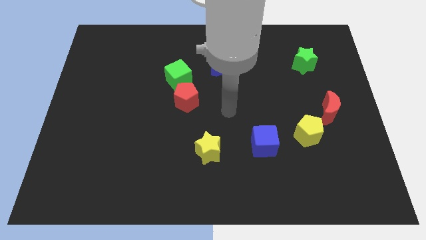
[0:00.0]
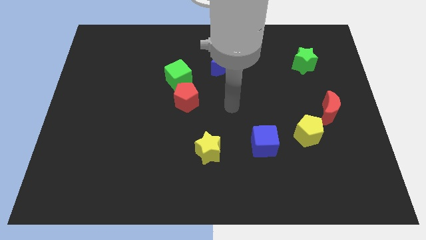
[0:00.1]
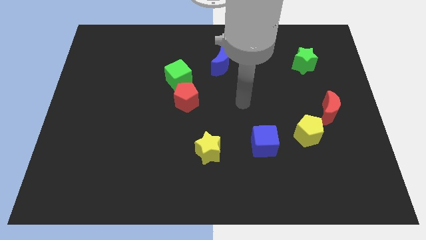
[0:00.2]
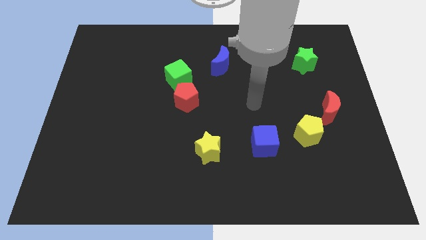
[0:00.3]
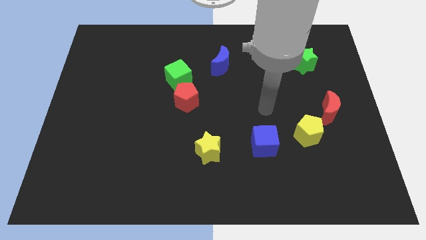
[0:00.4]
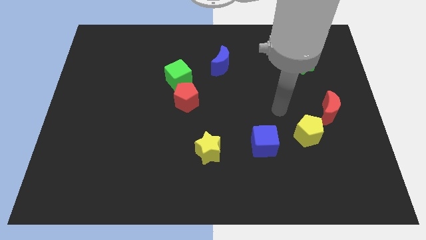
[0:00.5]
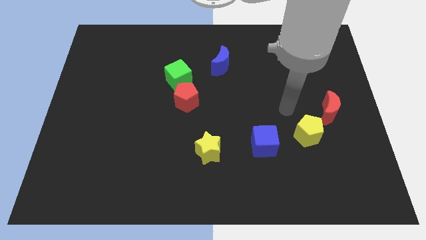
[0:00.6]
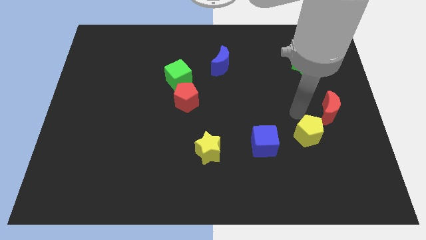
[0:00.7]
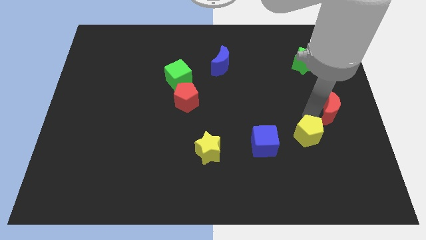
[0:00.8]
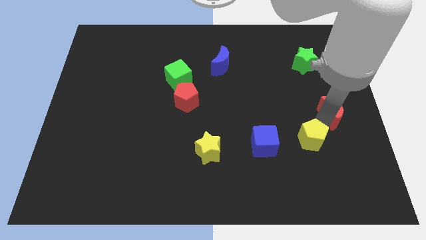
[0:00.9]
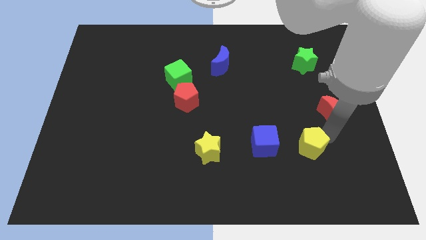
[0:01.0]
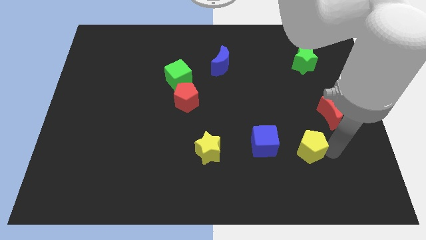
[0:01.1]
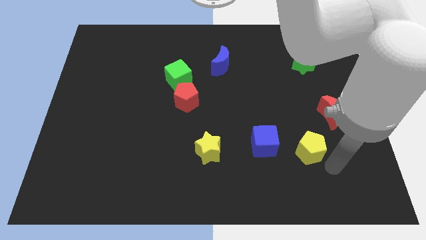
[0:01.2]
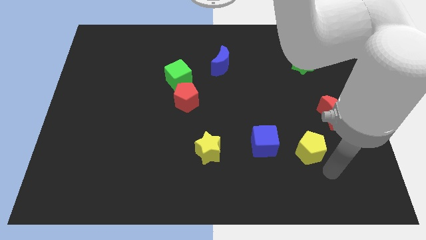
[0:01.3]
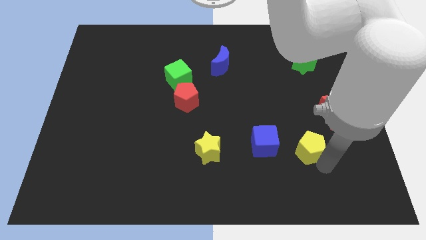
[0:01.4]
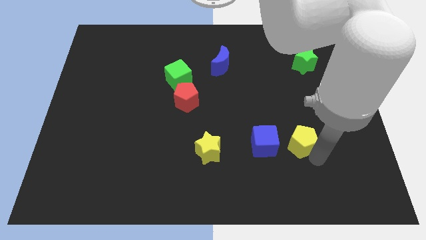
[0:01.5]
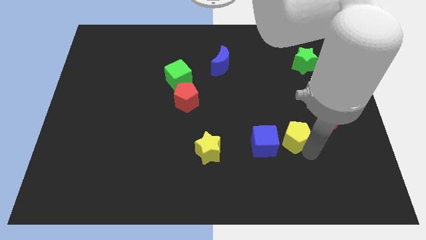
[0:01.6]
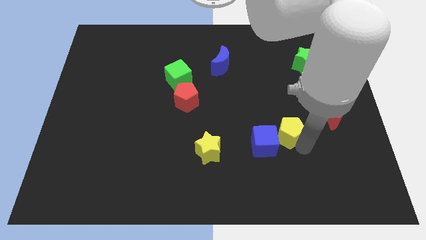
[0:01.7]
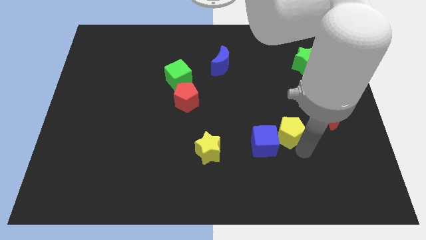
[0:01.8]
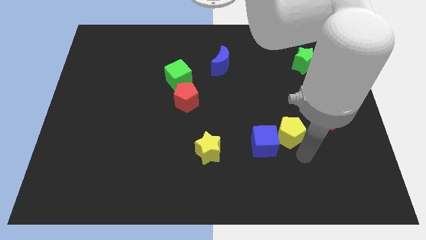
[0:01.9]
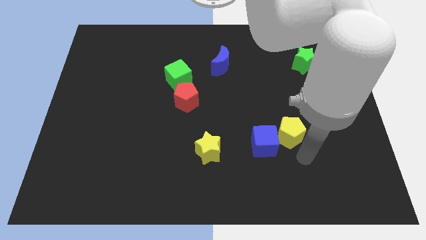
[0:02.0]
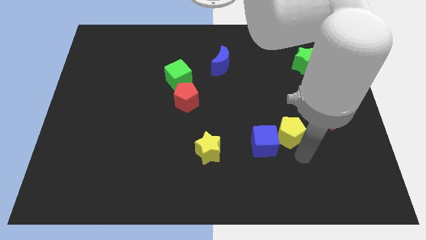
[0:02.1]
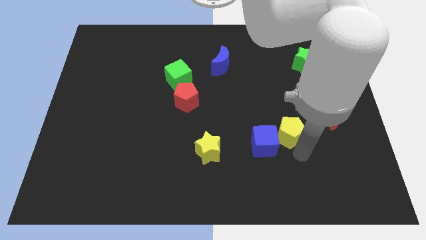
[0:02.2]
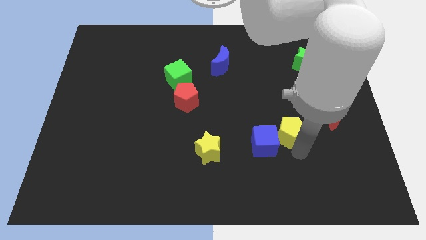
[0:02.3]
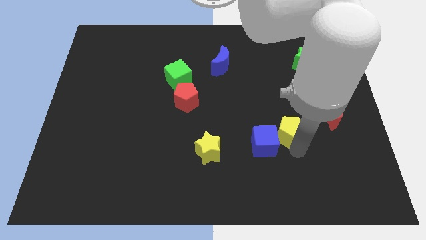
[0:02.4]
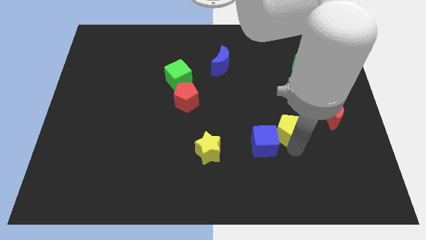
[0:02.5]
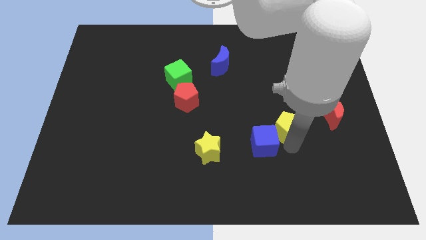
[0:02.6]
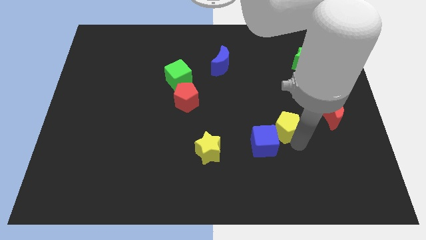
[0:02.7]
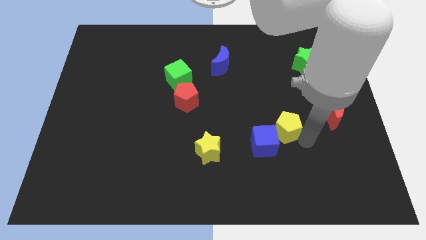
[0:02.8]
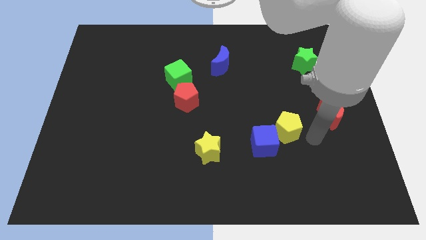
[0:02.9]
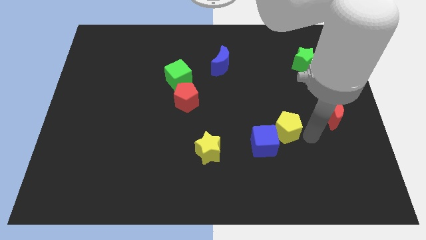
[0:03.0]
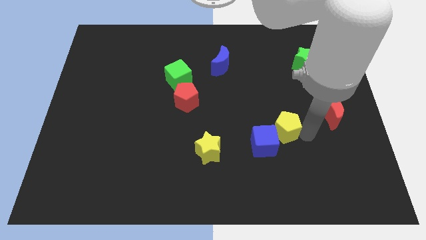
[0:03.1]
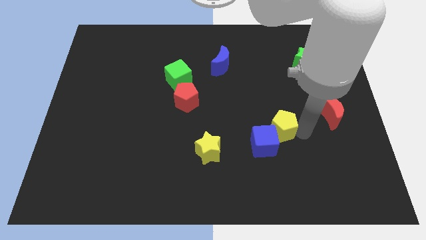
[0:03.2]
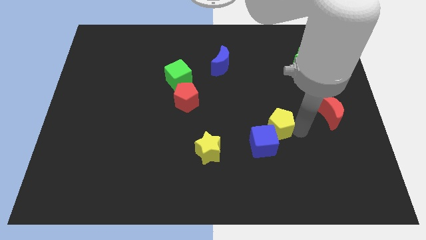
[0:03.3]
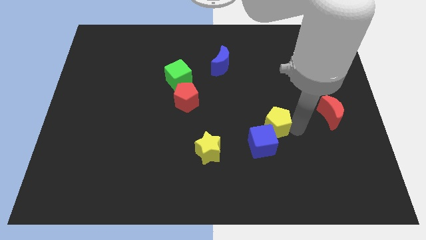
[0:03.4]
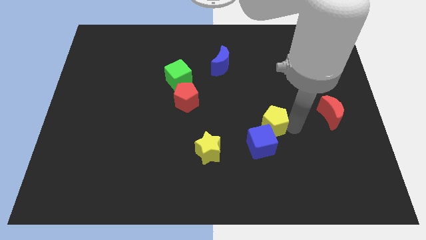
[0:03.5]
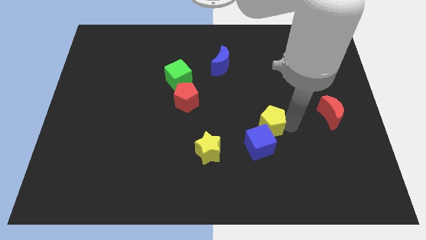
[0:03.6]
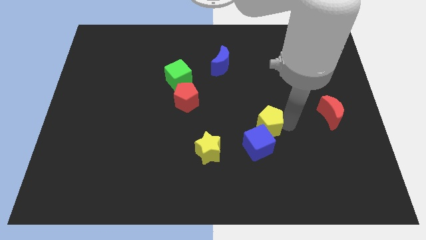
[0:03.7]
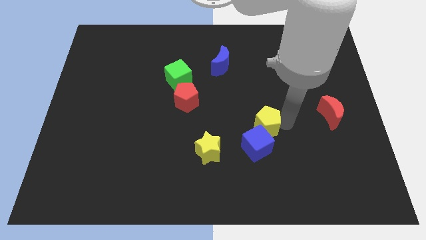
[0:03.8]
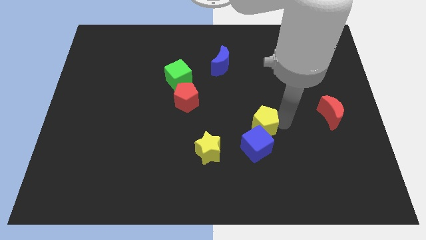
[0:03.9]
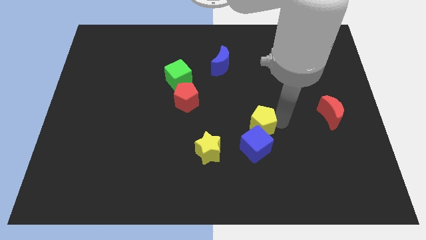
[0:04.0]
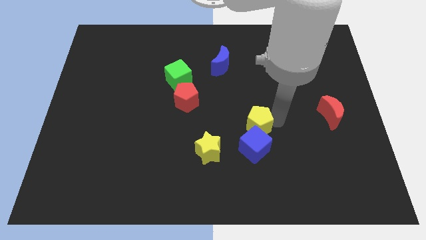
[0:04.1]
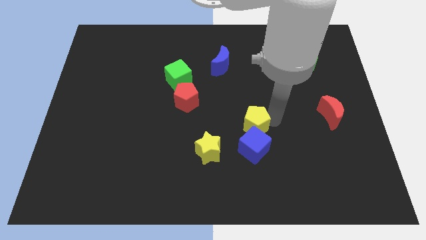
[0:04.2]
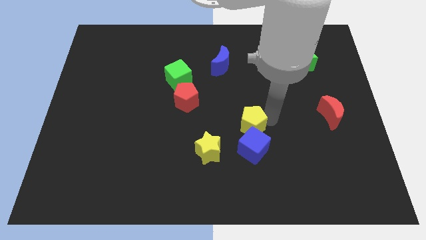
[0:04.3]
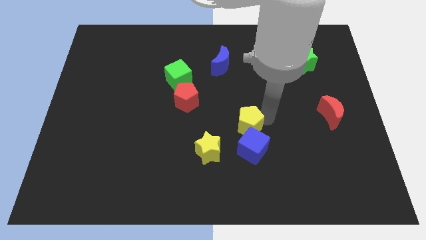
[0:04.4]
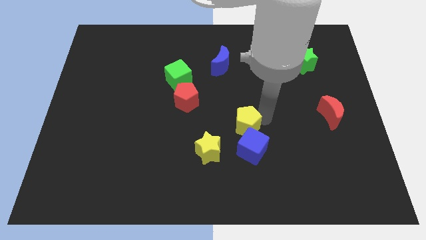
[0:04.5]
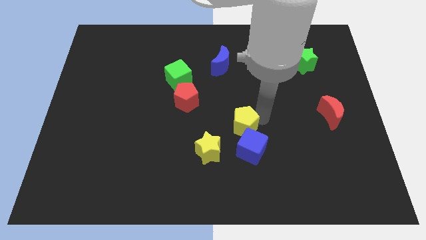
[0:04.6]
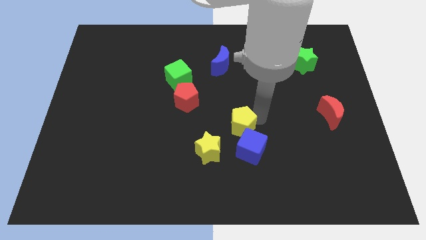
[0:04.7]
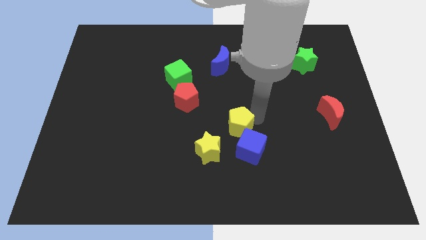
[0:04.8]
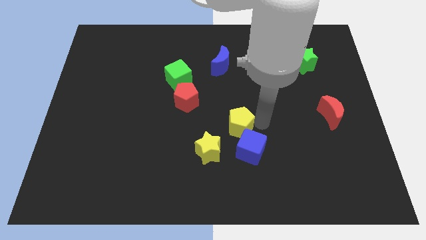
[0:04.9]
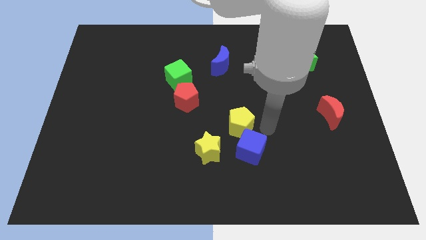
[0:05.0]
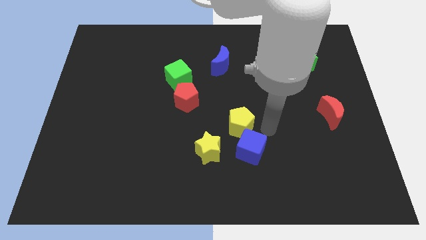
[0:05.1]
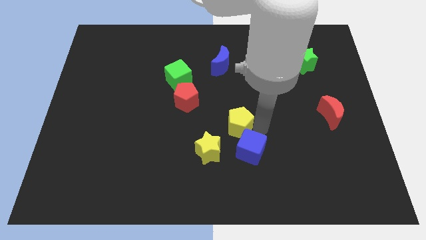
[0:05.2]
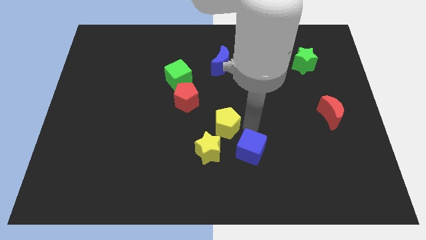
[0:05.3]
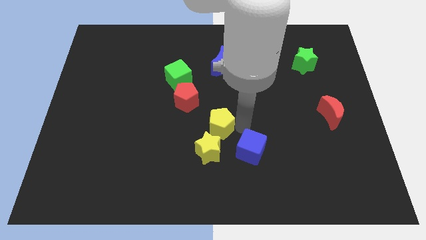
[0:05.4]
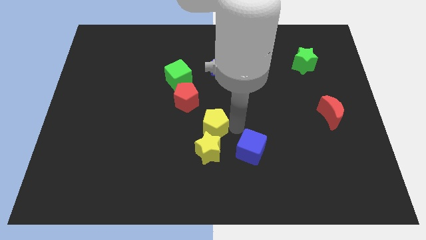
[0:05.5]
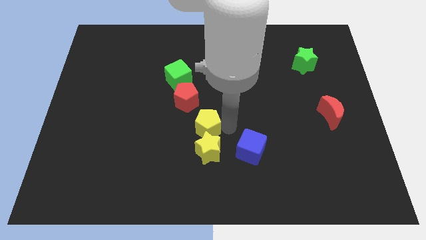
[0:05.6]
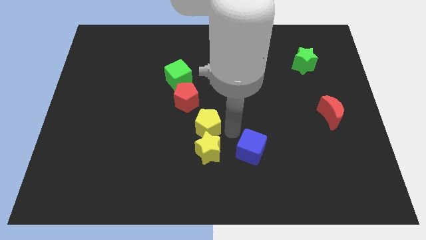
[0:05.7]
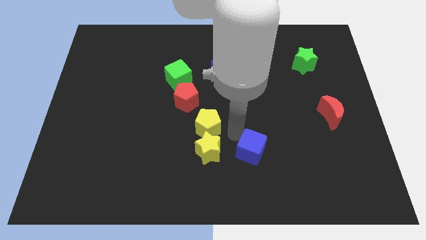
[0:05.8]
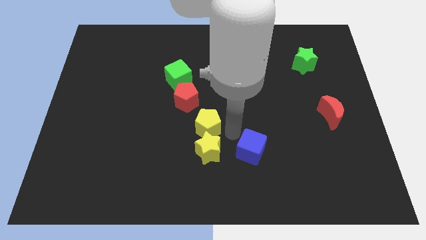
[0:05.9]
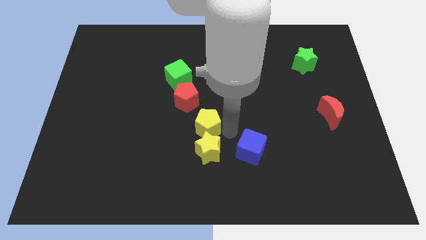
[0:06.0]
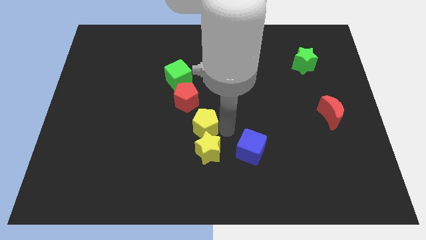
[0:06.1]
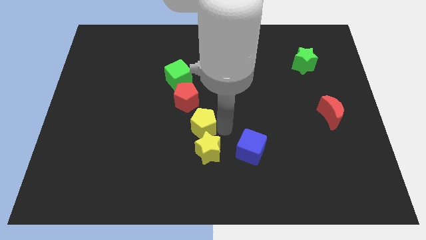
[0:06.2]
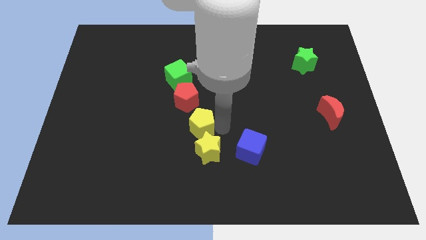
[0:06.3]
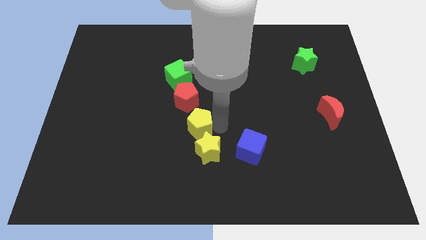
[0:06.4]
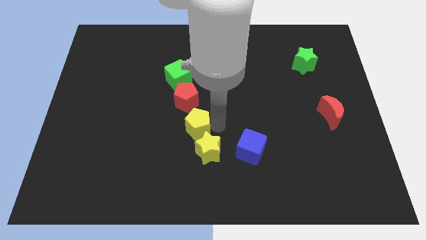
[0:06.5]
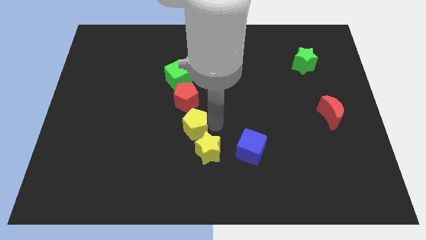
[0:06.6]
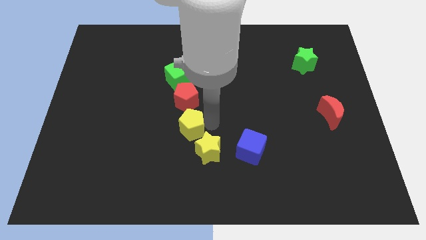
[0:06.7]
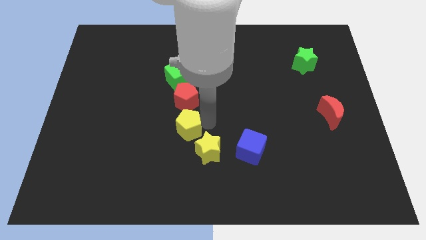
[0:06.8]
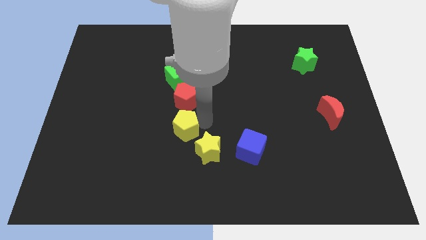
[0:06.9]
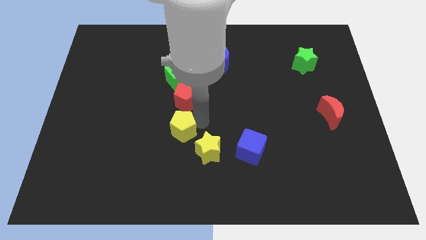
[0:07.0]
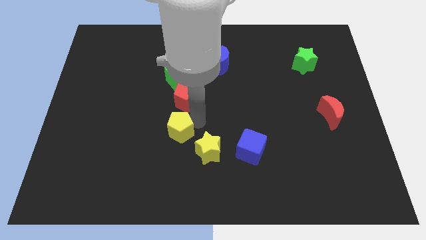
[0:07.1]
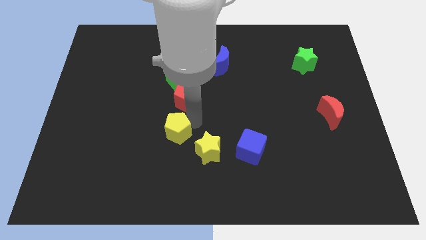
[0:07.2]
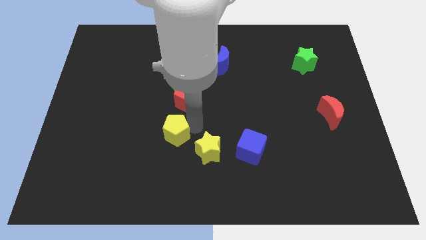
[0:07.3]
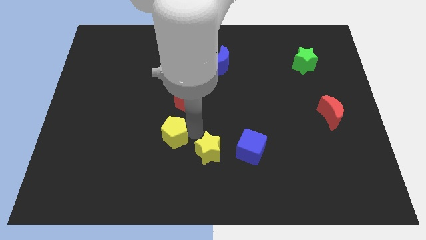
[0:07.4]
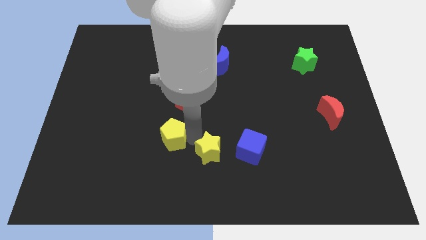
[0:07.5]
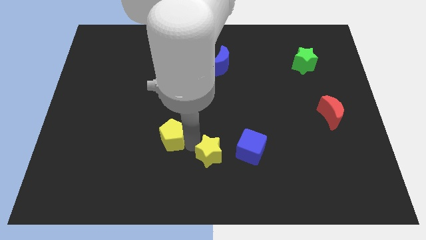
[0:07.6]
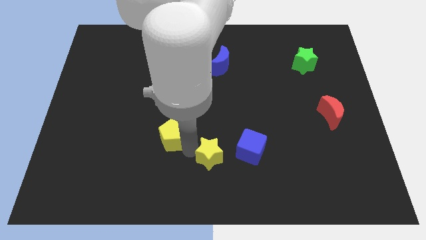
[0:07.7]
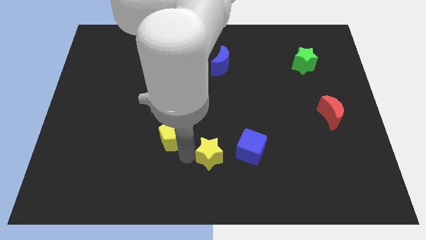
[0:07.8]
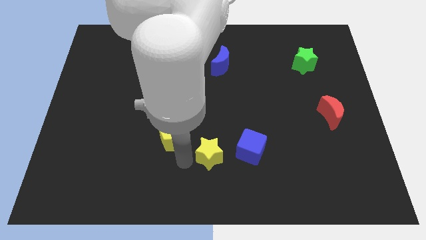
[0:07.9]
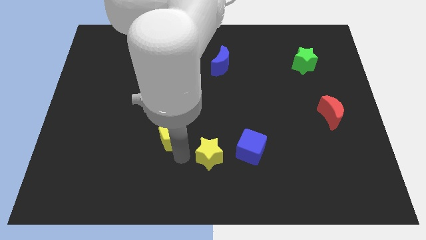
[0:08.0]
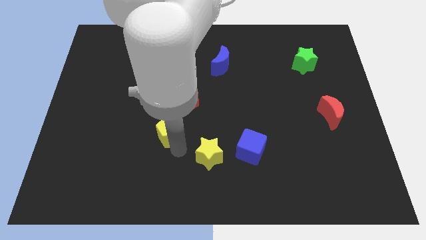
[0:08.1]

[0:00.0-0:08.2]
slide the yellow pentagon to the bottom left side of the red pentagon
